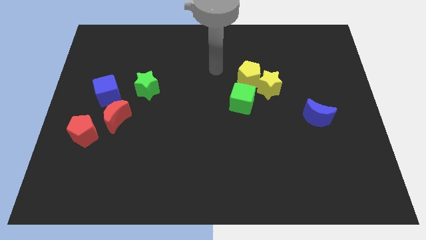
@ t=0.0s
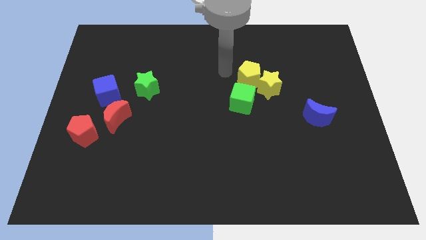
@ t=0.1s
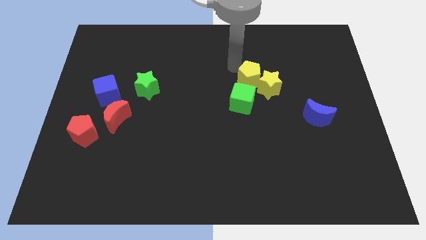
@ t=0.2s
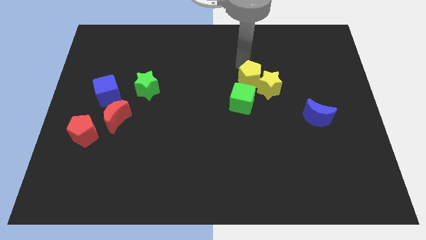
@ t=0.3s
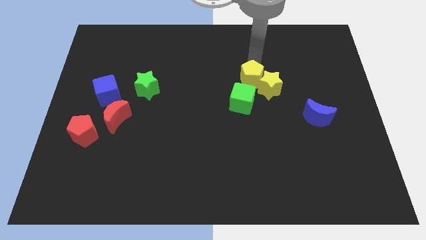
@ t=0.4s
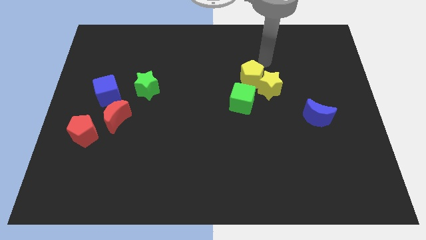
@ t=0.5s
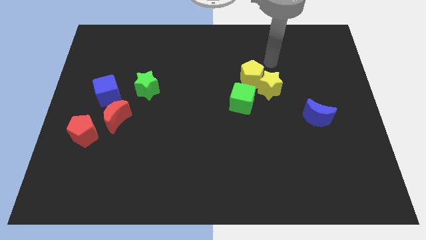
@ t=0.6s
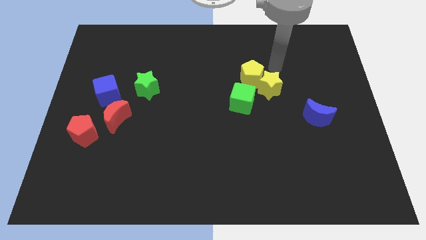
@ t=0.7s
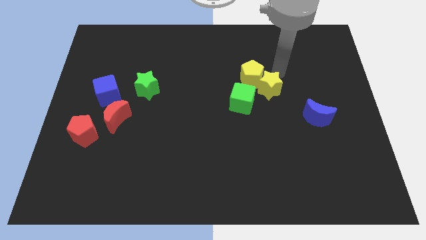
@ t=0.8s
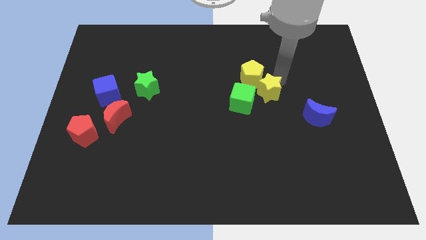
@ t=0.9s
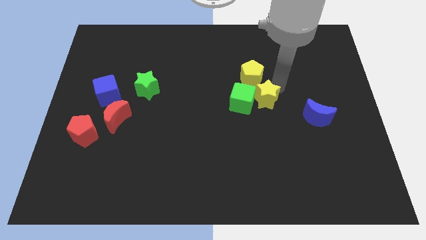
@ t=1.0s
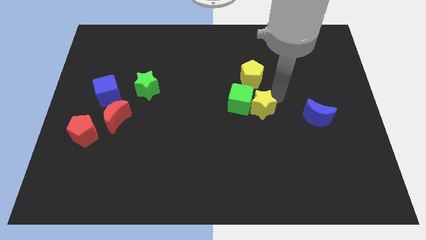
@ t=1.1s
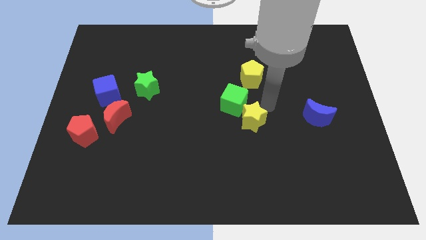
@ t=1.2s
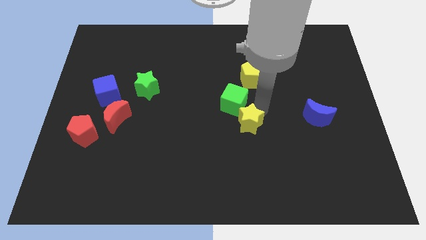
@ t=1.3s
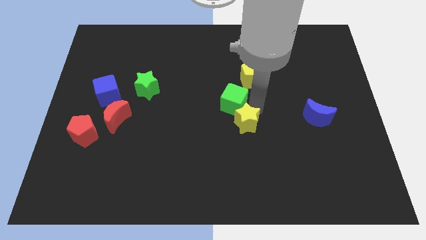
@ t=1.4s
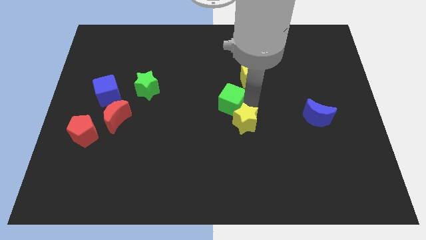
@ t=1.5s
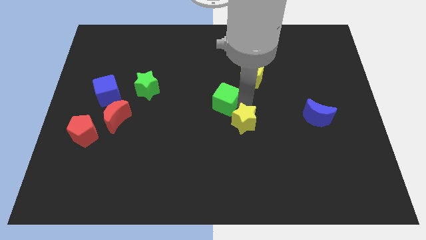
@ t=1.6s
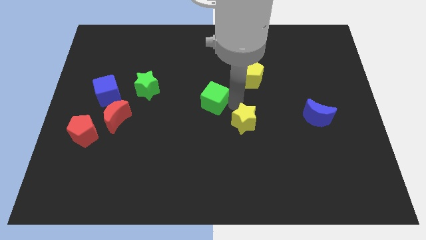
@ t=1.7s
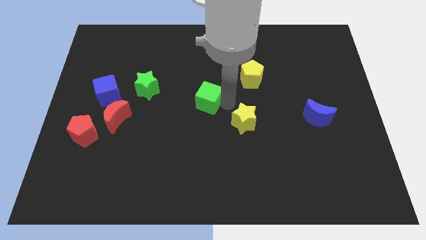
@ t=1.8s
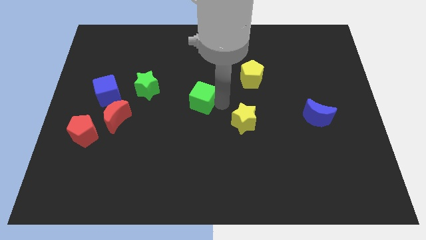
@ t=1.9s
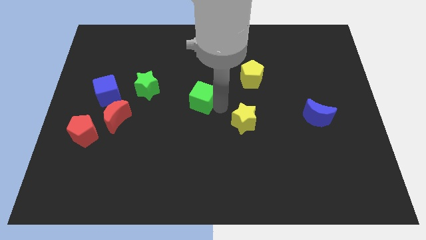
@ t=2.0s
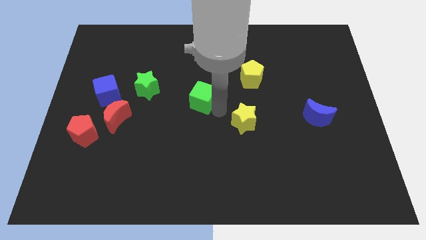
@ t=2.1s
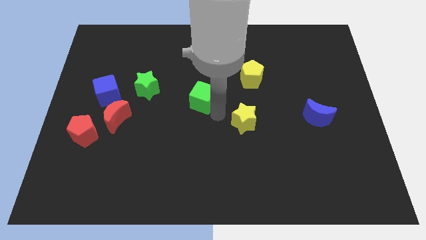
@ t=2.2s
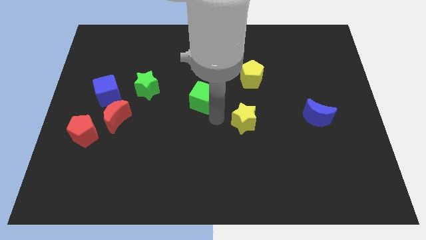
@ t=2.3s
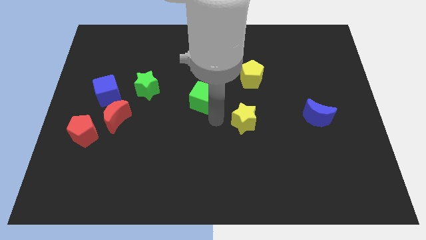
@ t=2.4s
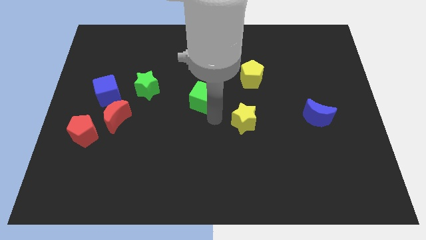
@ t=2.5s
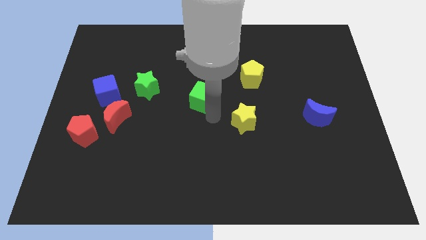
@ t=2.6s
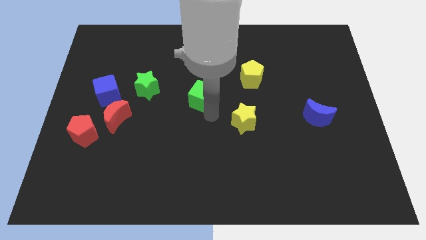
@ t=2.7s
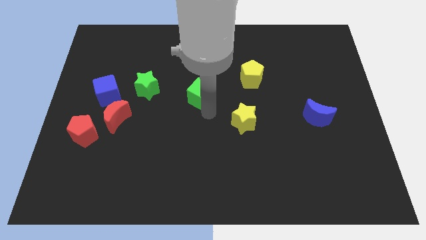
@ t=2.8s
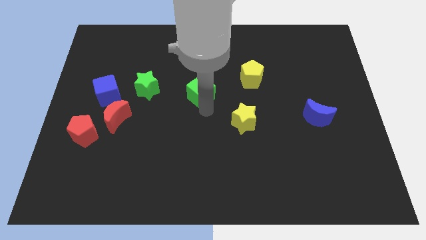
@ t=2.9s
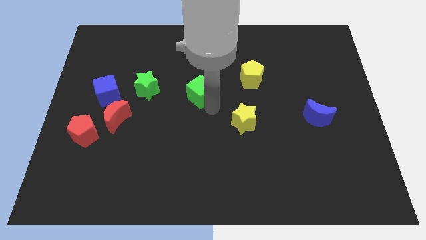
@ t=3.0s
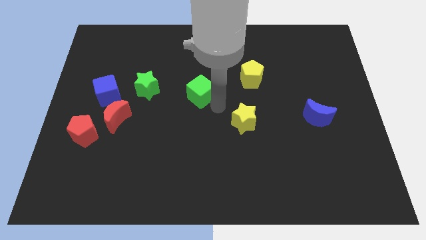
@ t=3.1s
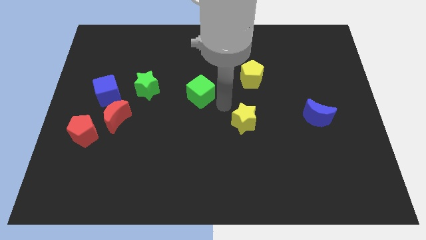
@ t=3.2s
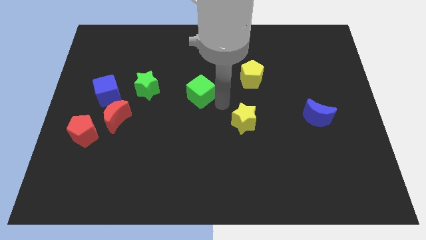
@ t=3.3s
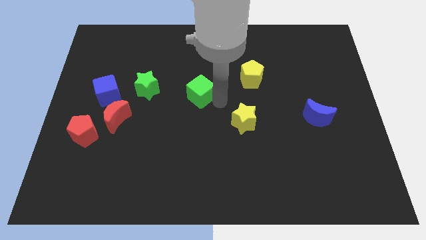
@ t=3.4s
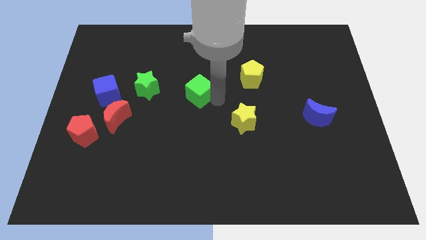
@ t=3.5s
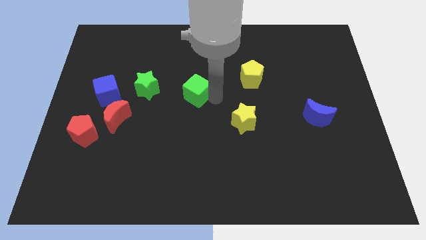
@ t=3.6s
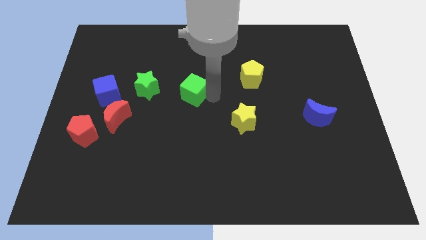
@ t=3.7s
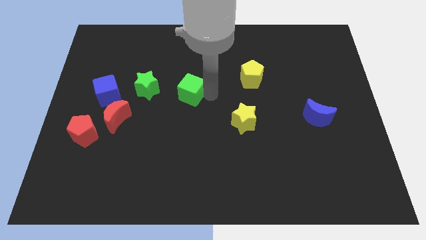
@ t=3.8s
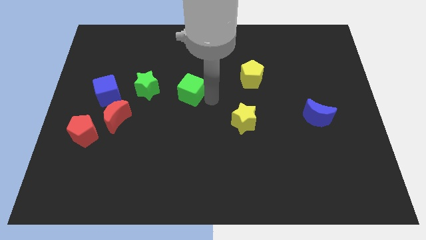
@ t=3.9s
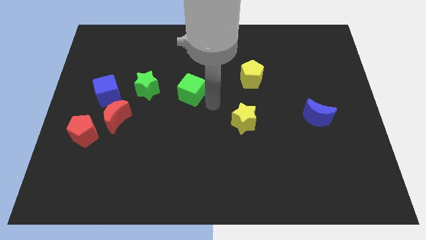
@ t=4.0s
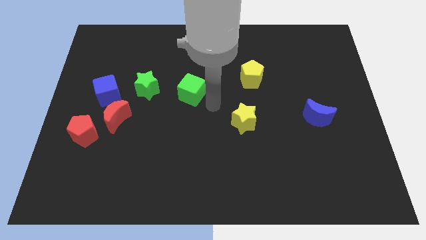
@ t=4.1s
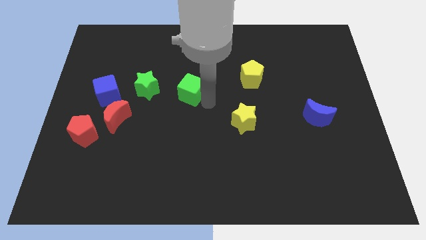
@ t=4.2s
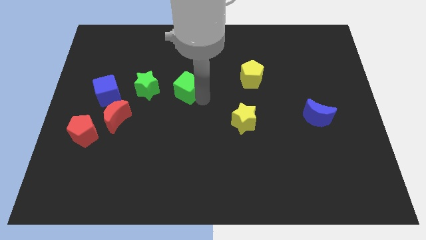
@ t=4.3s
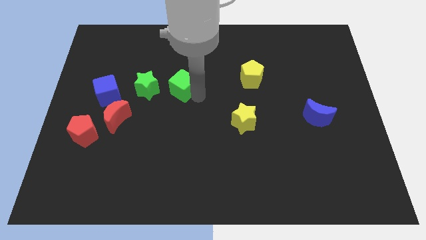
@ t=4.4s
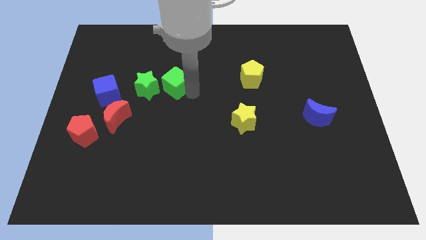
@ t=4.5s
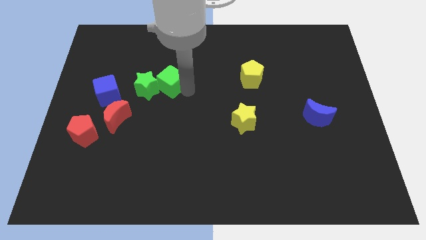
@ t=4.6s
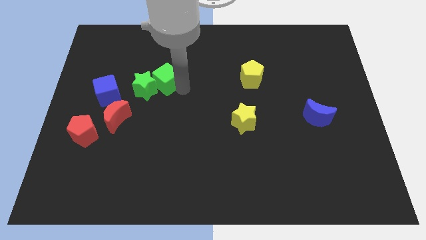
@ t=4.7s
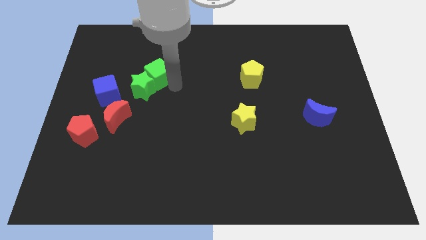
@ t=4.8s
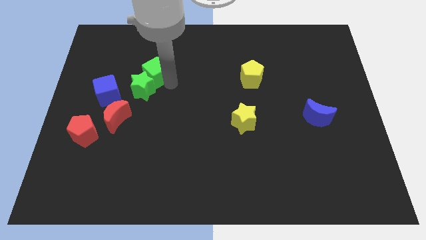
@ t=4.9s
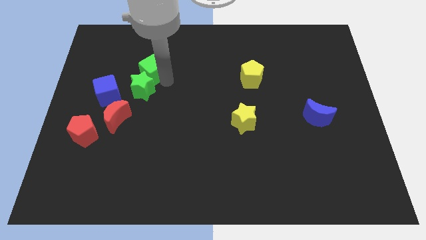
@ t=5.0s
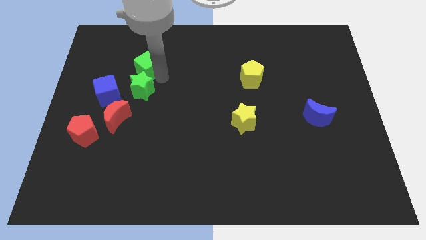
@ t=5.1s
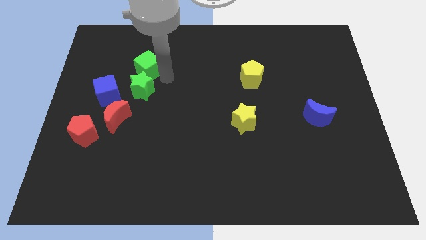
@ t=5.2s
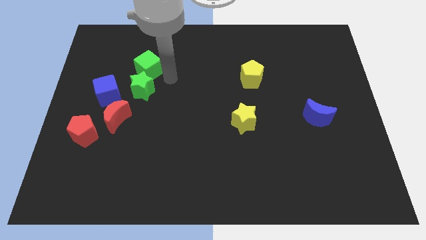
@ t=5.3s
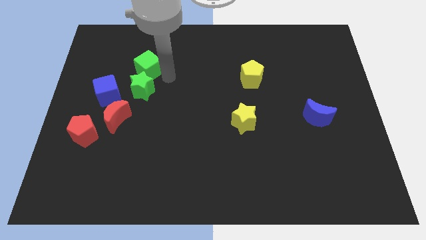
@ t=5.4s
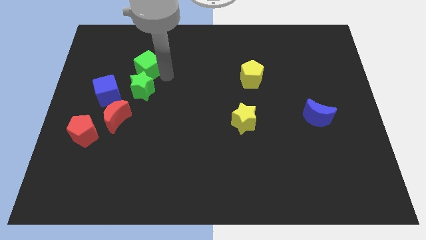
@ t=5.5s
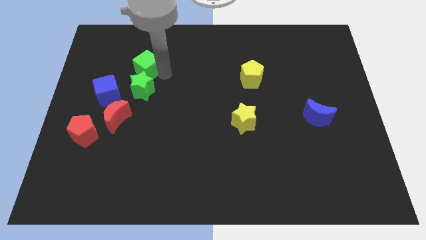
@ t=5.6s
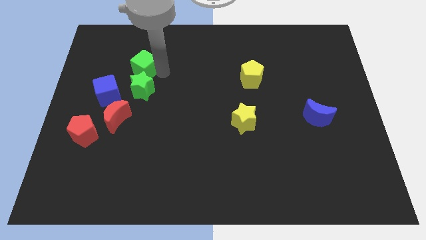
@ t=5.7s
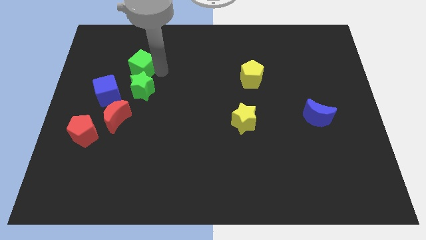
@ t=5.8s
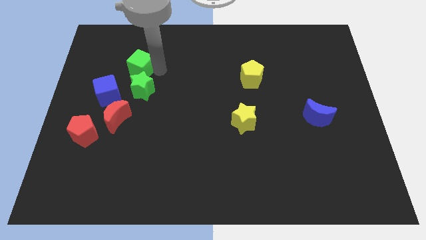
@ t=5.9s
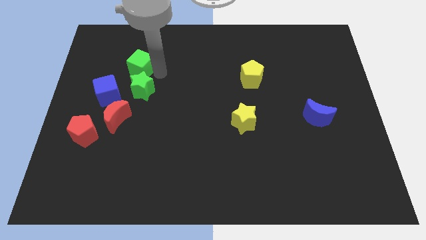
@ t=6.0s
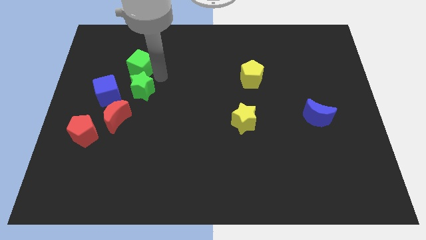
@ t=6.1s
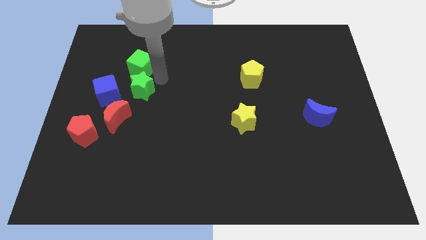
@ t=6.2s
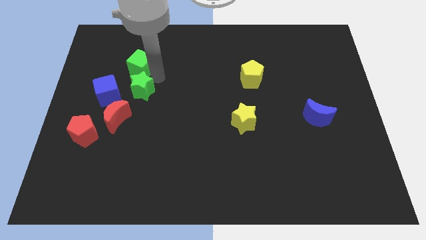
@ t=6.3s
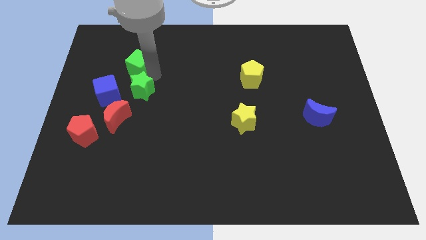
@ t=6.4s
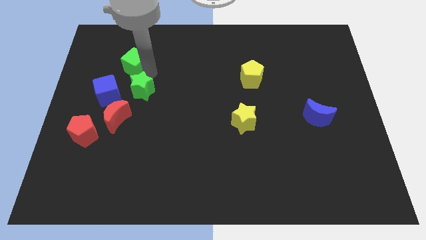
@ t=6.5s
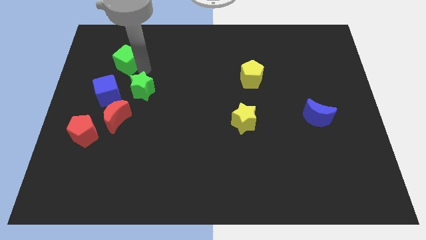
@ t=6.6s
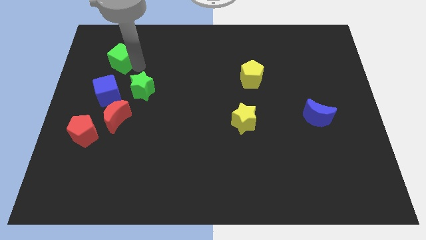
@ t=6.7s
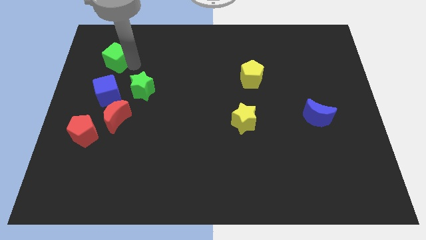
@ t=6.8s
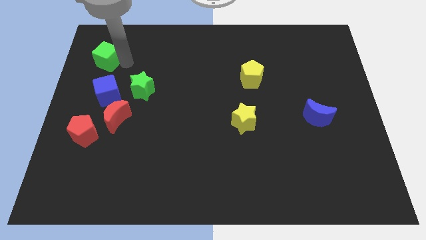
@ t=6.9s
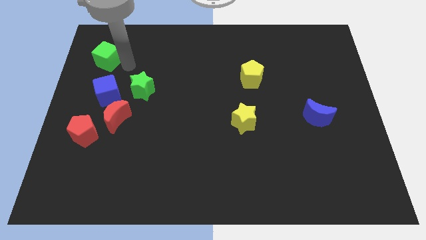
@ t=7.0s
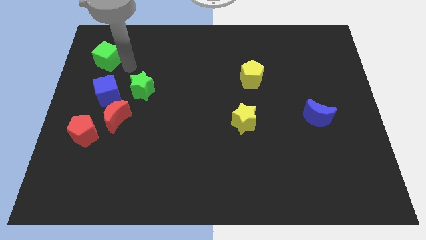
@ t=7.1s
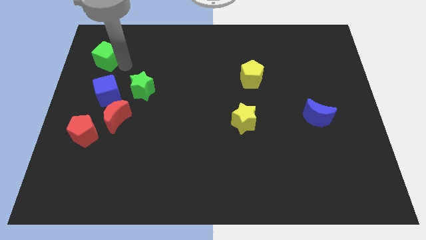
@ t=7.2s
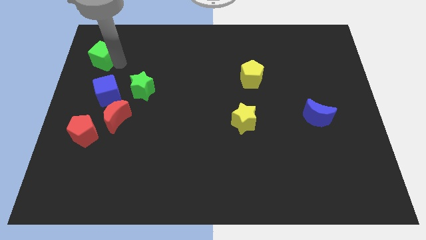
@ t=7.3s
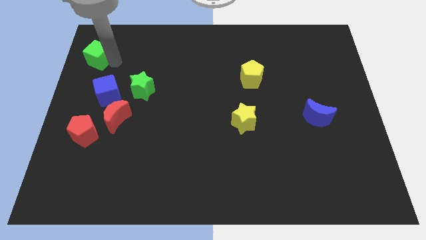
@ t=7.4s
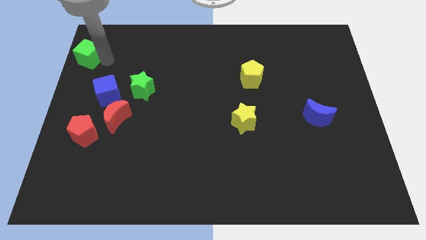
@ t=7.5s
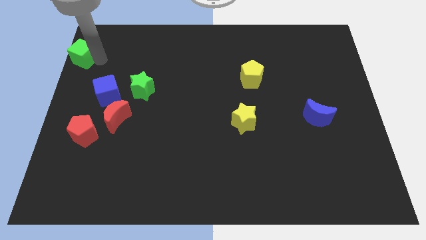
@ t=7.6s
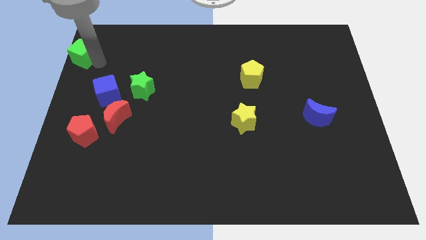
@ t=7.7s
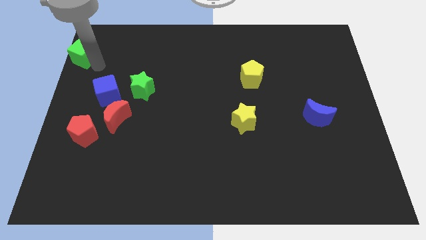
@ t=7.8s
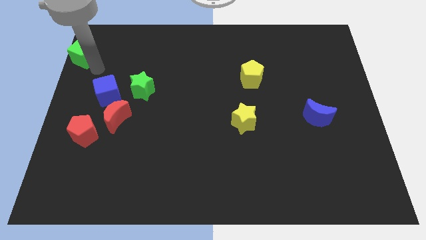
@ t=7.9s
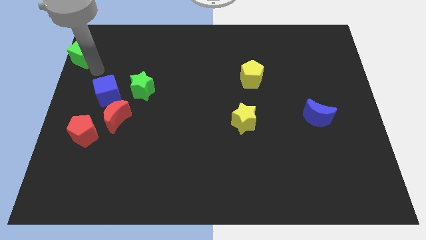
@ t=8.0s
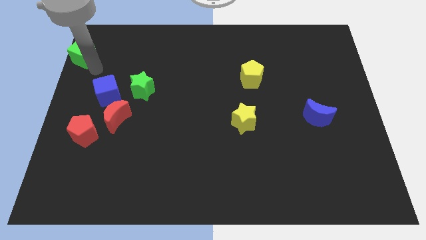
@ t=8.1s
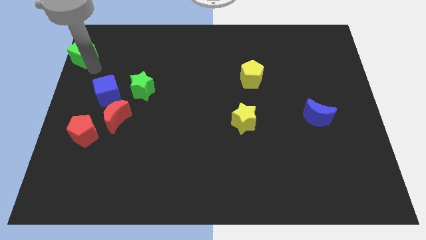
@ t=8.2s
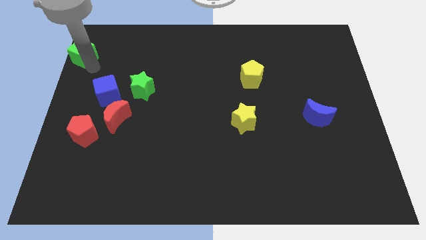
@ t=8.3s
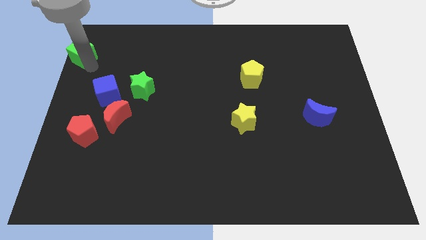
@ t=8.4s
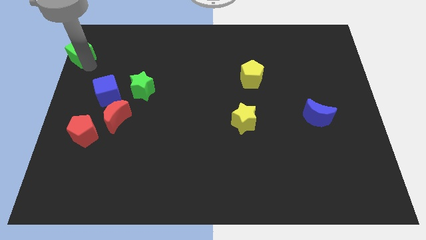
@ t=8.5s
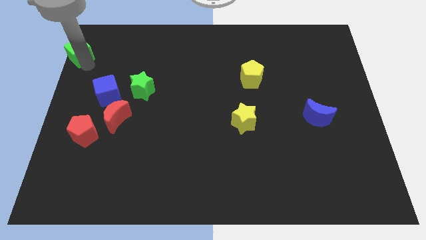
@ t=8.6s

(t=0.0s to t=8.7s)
put the green cube to the top left corner
